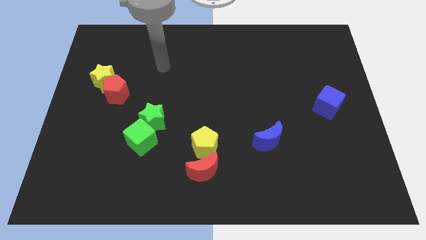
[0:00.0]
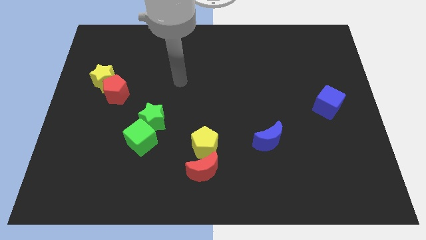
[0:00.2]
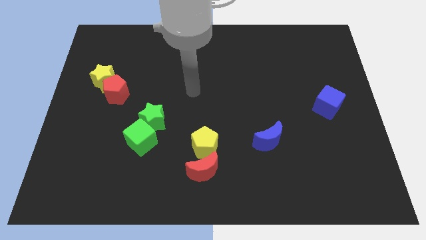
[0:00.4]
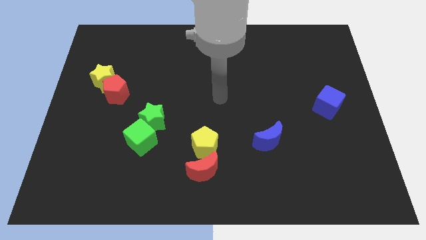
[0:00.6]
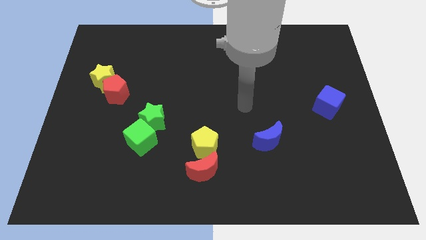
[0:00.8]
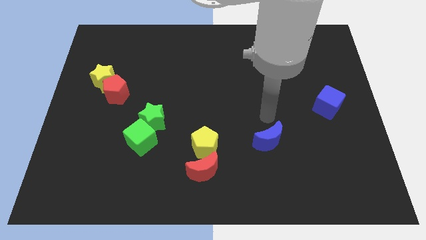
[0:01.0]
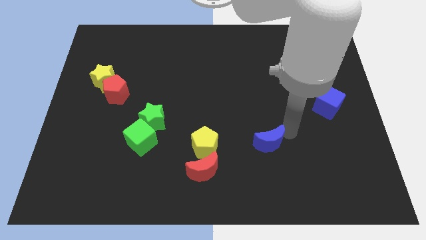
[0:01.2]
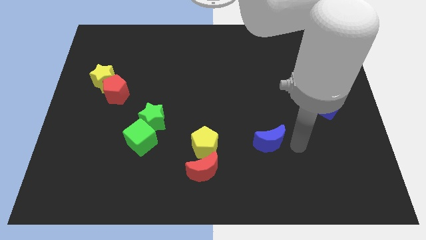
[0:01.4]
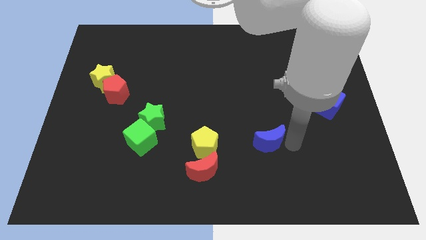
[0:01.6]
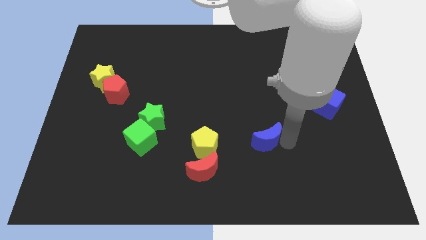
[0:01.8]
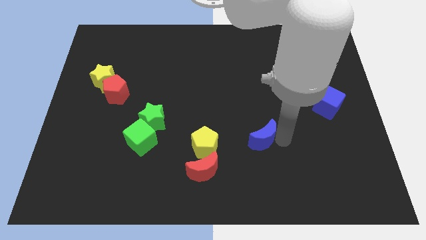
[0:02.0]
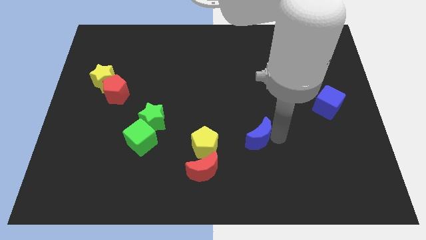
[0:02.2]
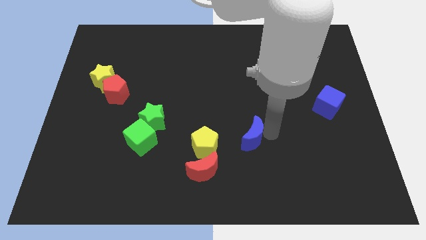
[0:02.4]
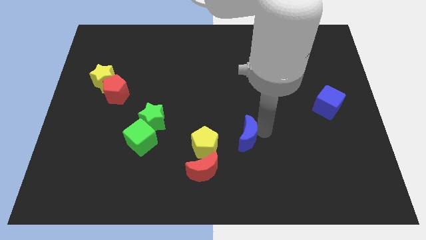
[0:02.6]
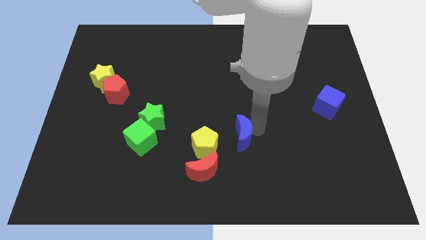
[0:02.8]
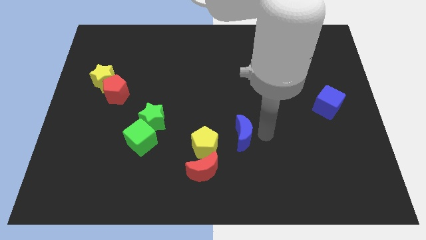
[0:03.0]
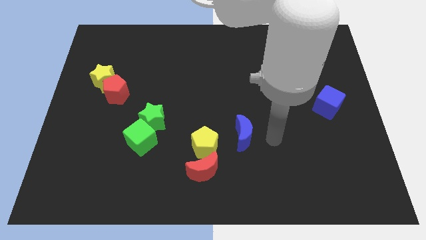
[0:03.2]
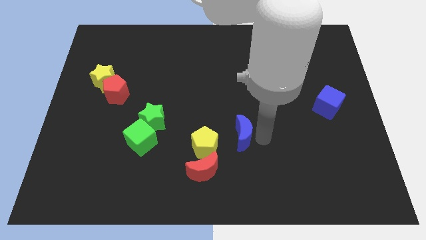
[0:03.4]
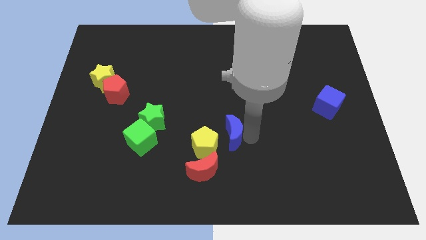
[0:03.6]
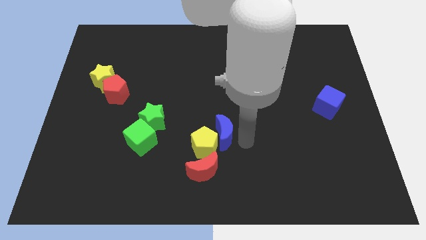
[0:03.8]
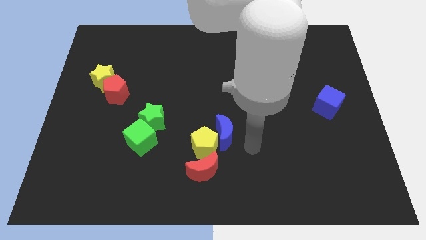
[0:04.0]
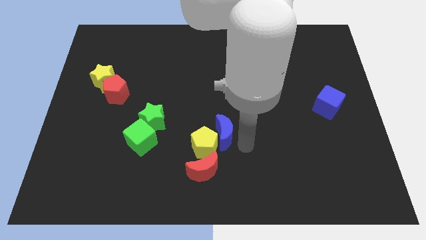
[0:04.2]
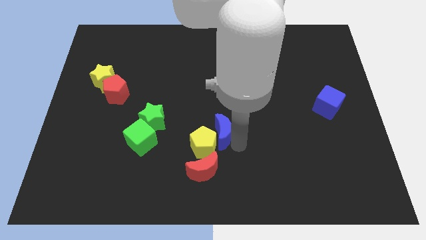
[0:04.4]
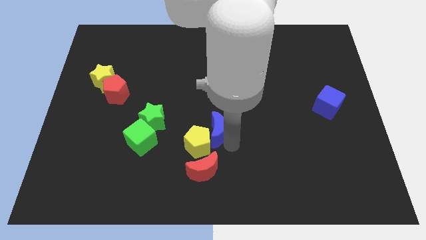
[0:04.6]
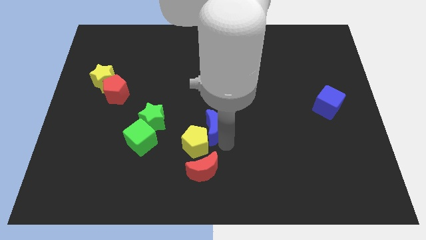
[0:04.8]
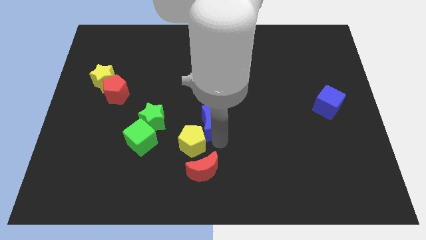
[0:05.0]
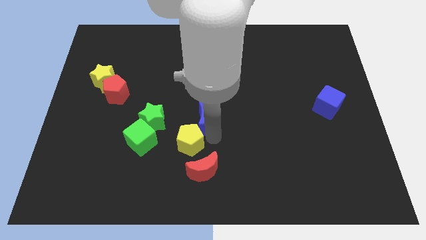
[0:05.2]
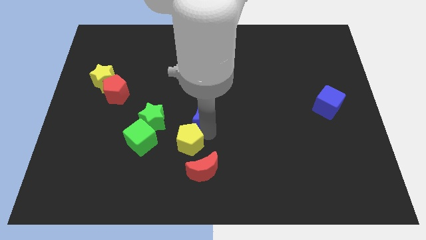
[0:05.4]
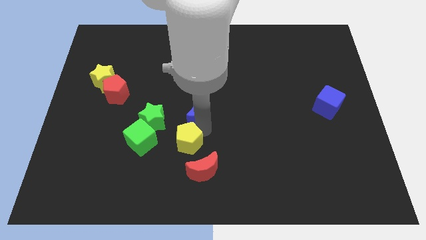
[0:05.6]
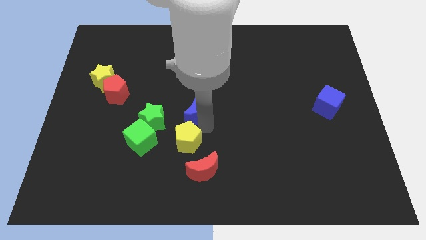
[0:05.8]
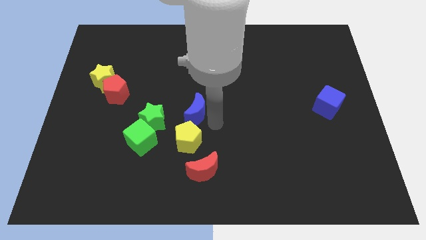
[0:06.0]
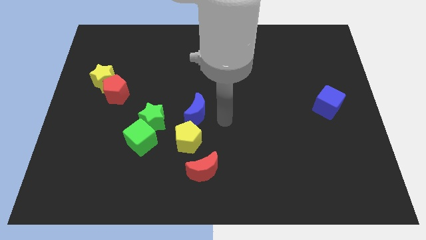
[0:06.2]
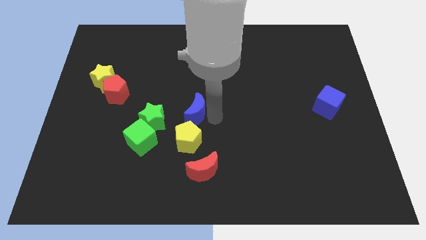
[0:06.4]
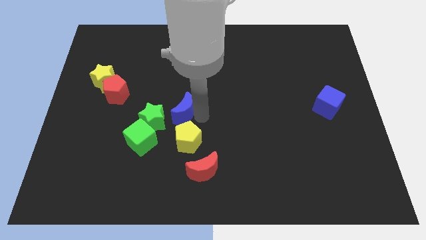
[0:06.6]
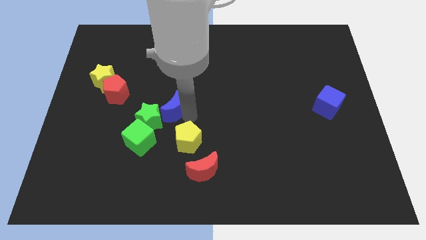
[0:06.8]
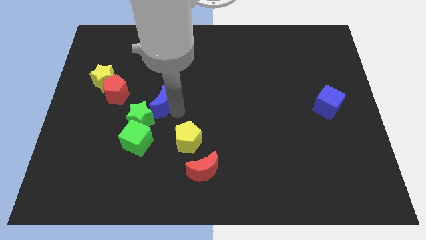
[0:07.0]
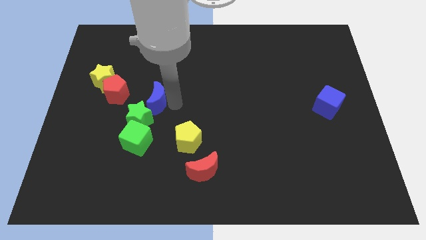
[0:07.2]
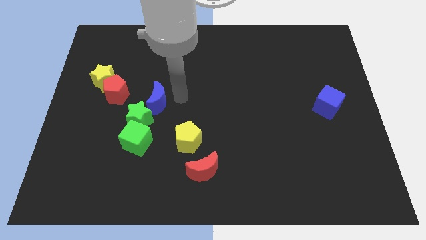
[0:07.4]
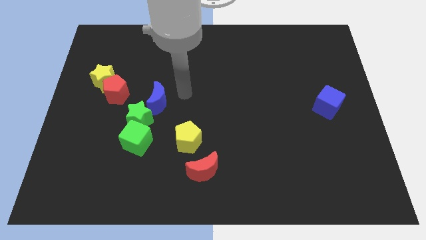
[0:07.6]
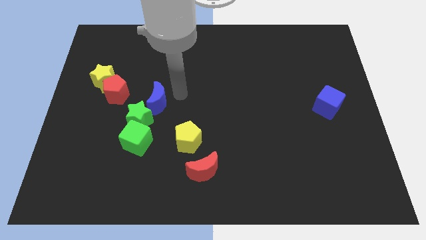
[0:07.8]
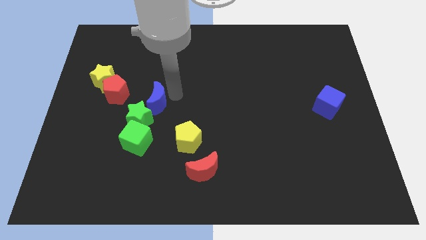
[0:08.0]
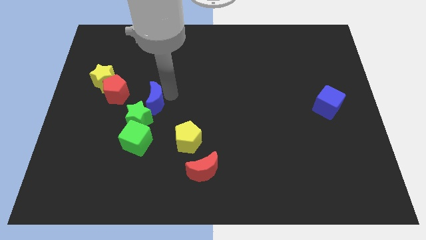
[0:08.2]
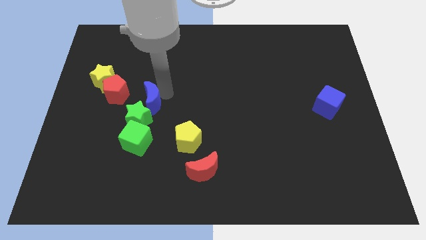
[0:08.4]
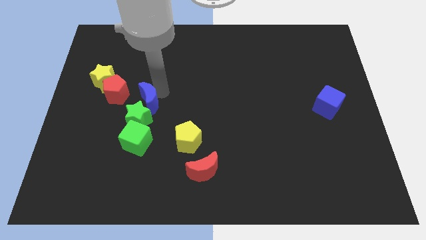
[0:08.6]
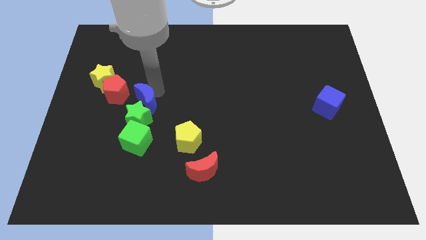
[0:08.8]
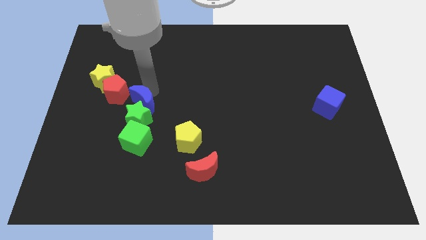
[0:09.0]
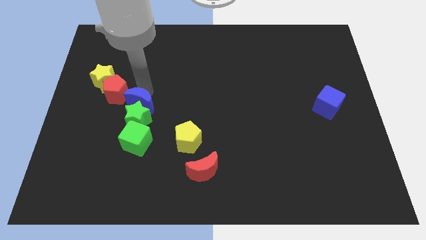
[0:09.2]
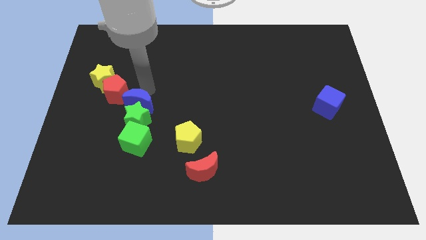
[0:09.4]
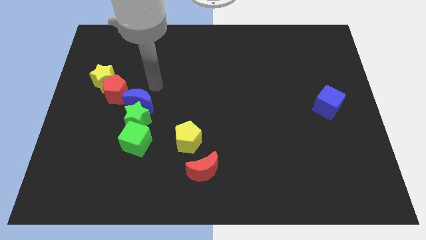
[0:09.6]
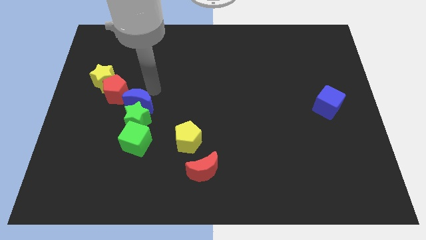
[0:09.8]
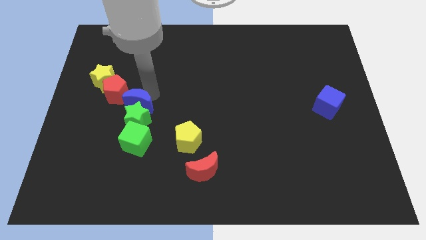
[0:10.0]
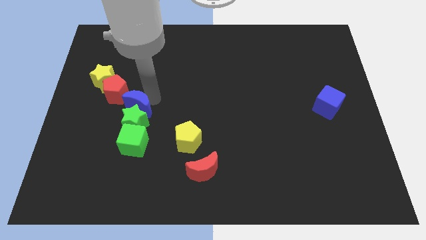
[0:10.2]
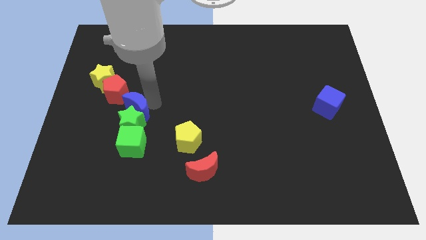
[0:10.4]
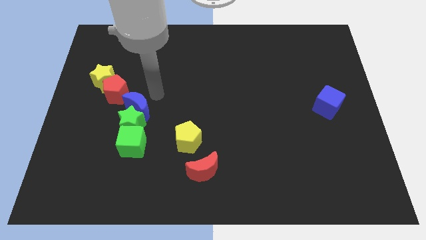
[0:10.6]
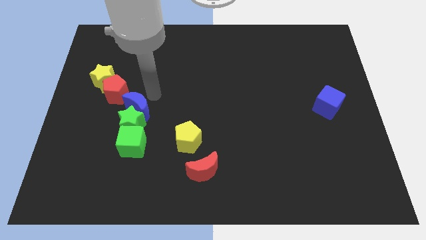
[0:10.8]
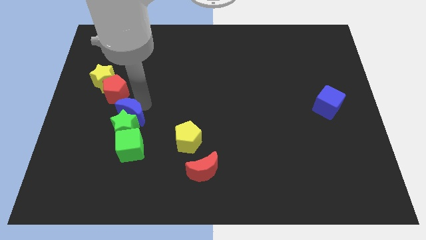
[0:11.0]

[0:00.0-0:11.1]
put the blue moon below the red pentagon

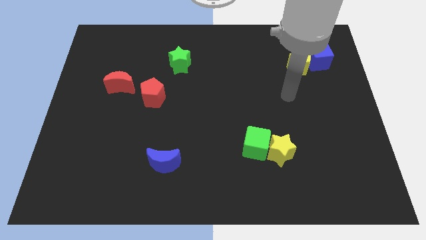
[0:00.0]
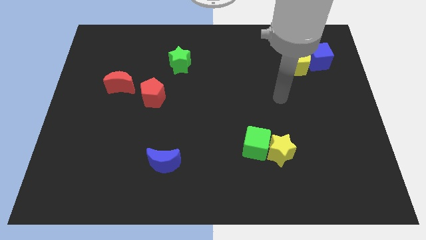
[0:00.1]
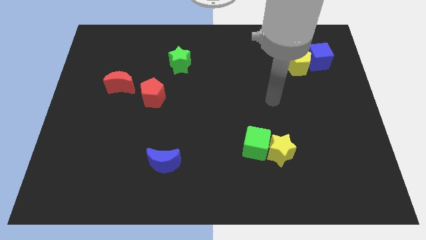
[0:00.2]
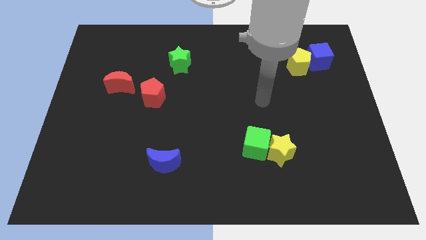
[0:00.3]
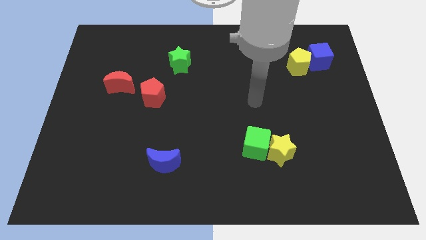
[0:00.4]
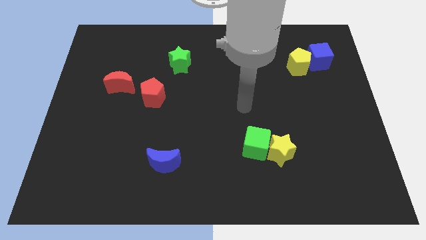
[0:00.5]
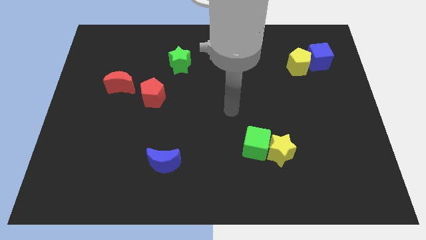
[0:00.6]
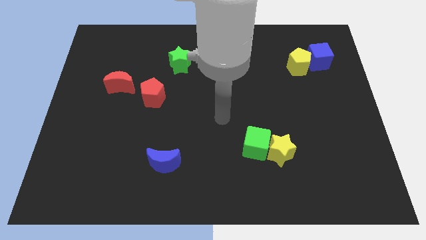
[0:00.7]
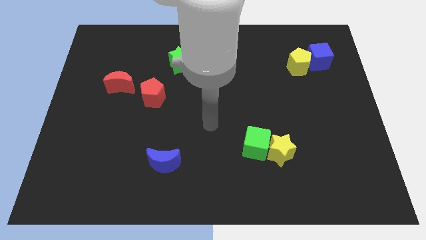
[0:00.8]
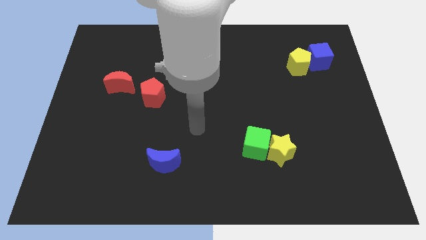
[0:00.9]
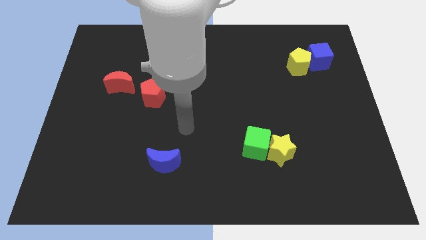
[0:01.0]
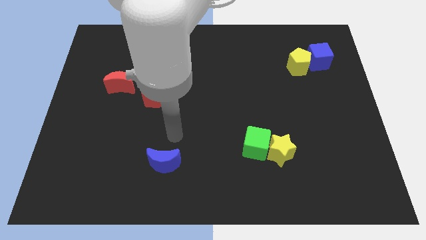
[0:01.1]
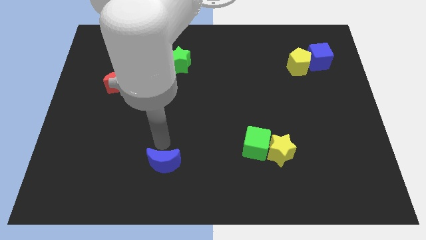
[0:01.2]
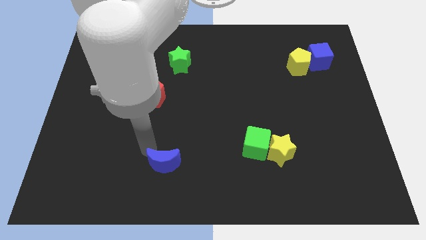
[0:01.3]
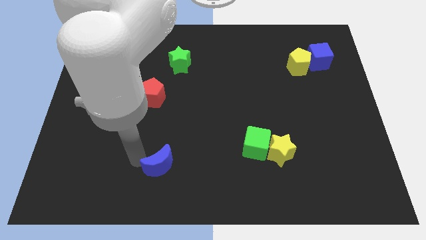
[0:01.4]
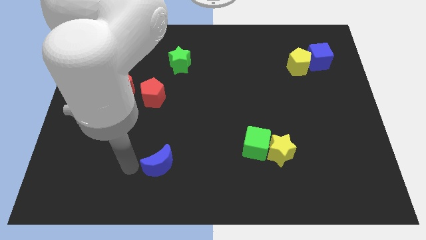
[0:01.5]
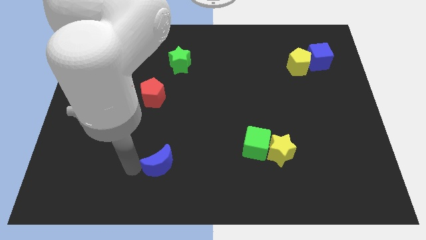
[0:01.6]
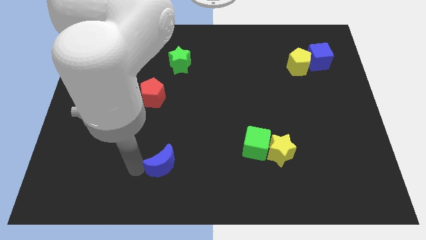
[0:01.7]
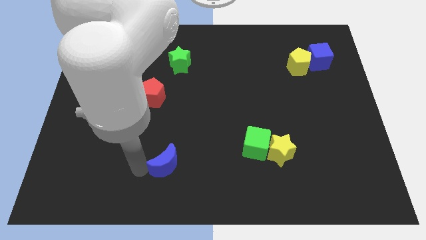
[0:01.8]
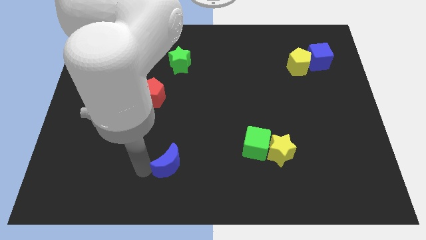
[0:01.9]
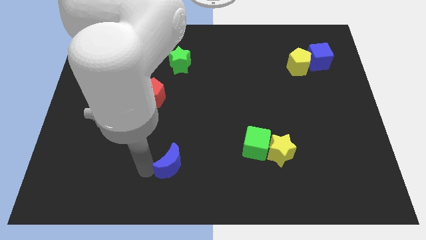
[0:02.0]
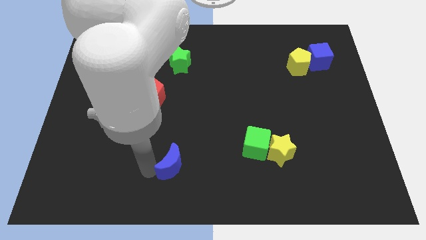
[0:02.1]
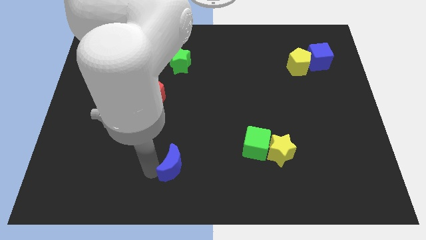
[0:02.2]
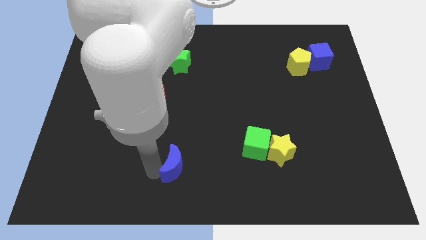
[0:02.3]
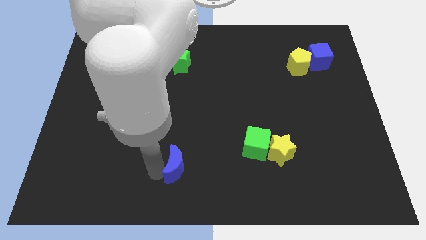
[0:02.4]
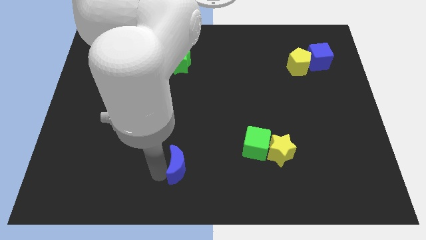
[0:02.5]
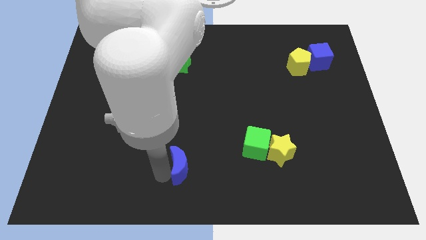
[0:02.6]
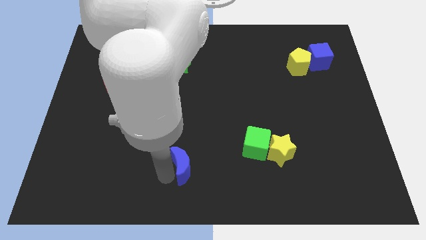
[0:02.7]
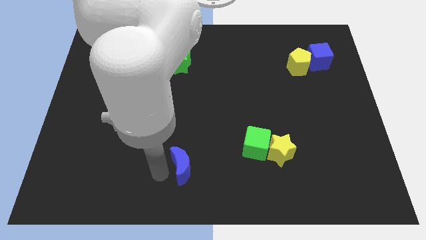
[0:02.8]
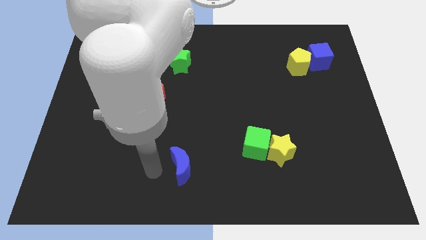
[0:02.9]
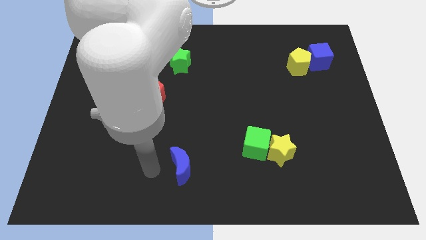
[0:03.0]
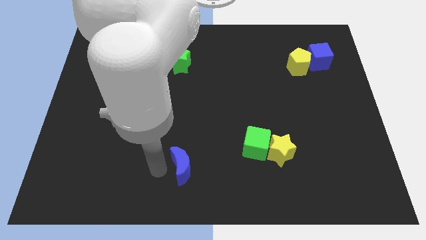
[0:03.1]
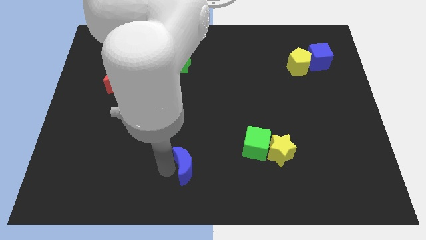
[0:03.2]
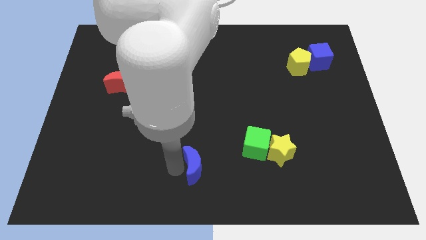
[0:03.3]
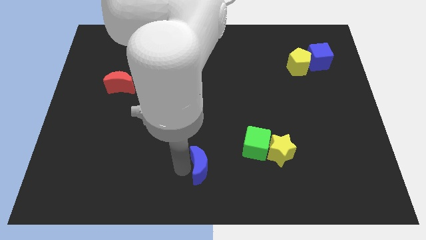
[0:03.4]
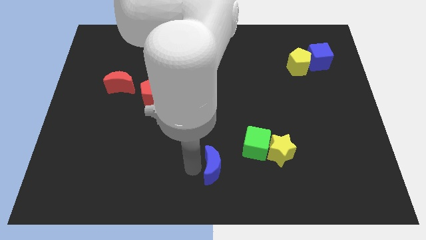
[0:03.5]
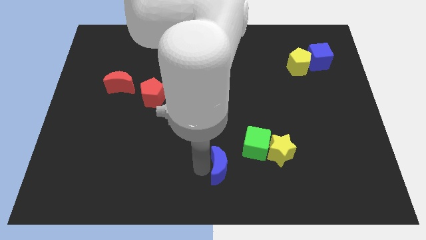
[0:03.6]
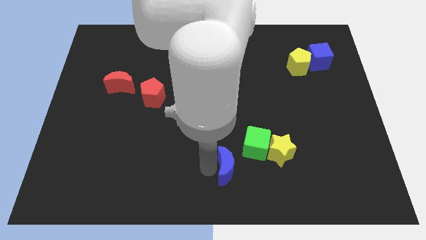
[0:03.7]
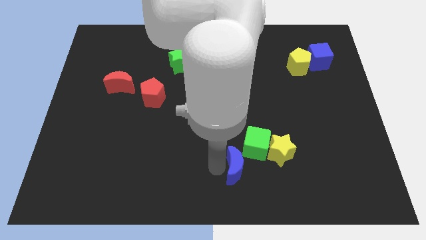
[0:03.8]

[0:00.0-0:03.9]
put the blue moon to the bottom left of the yellow star
